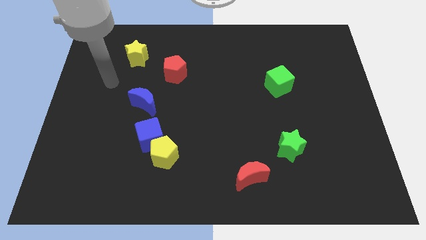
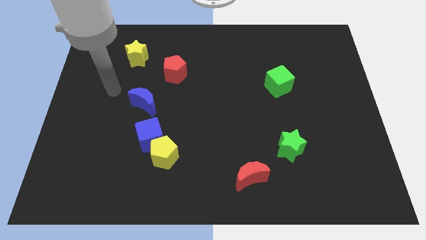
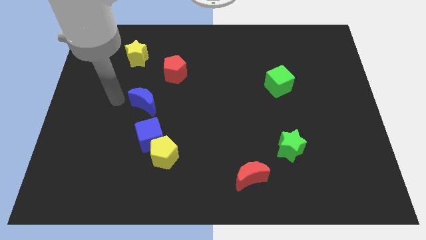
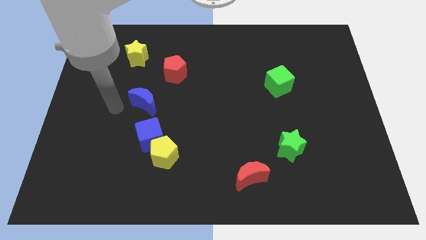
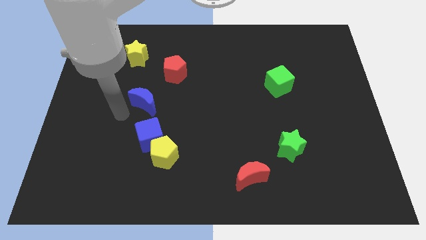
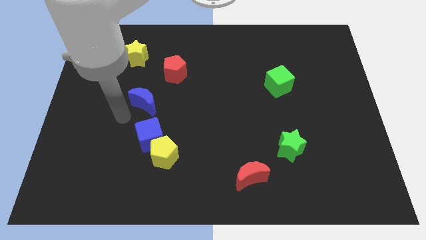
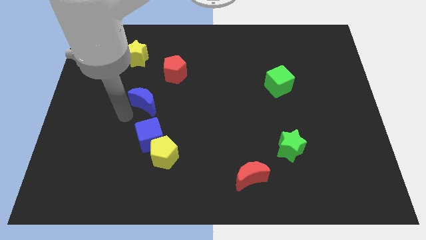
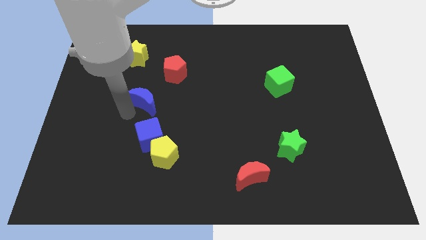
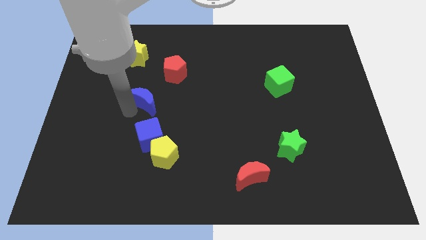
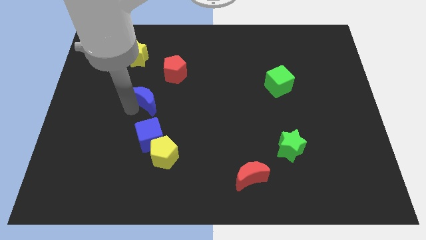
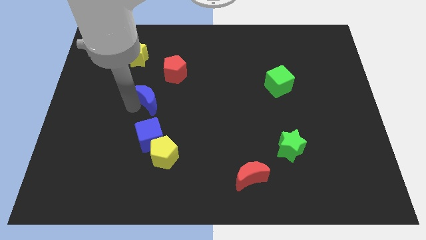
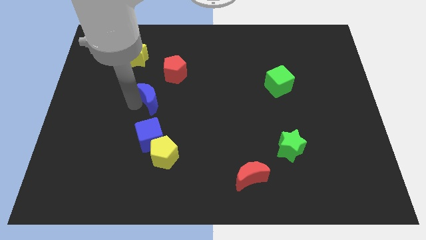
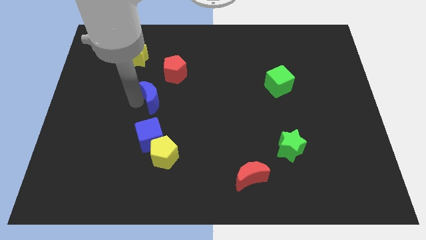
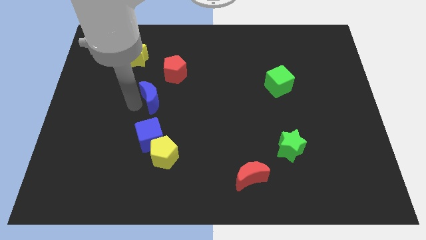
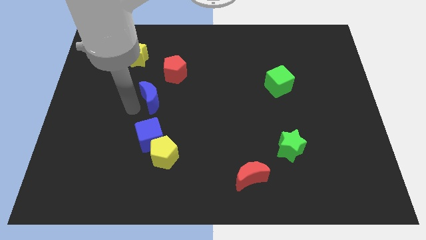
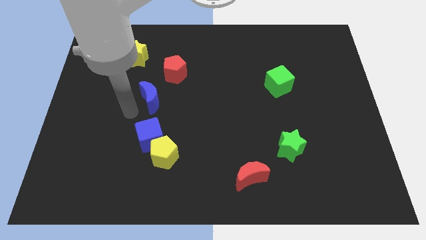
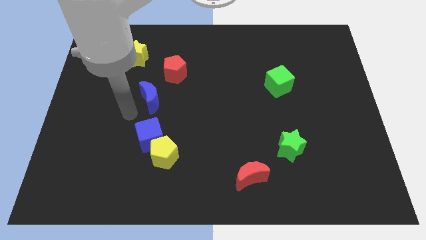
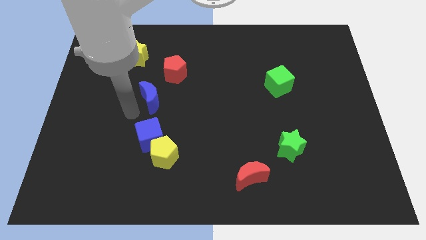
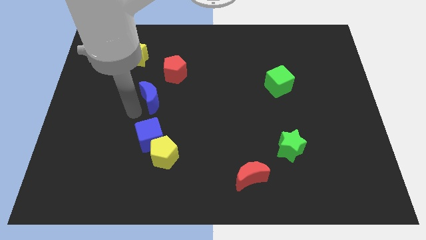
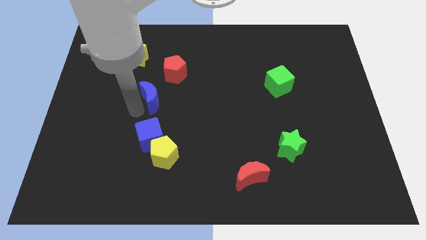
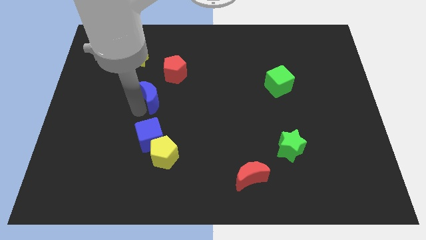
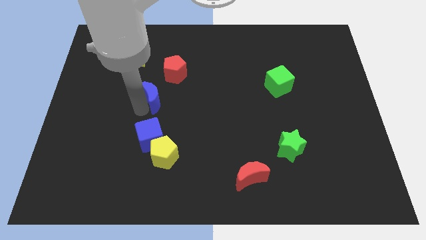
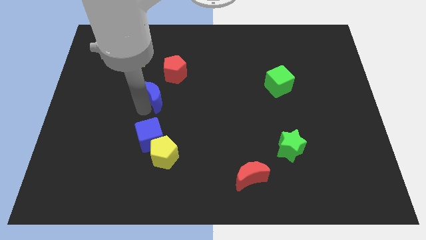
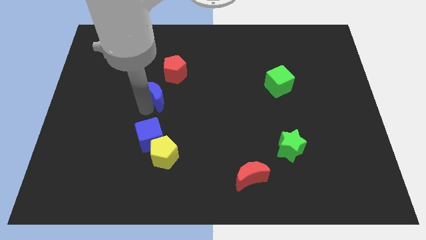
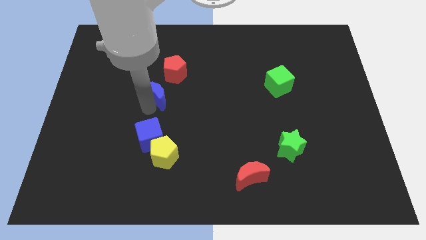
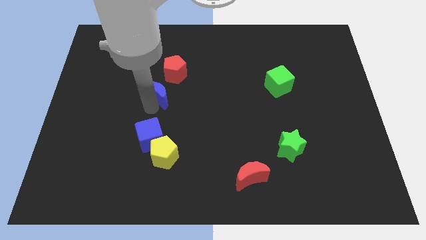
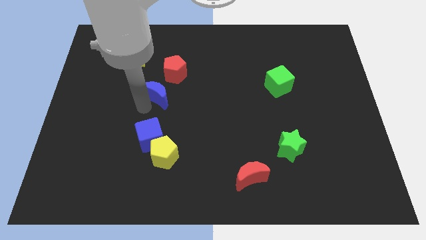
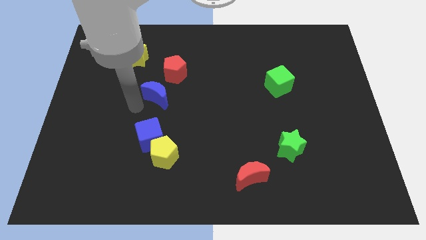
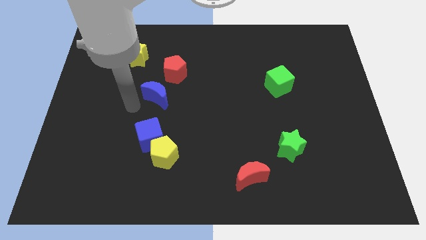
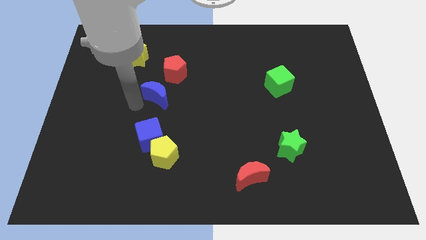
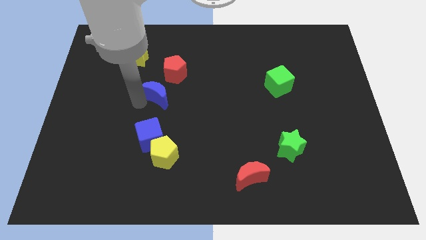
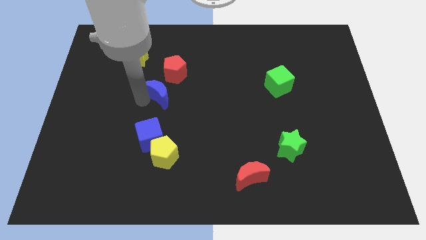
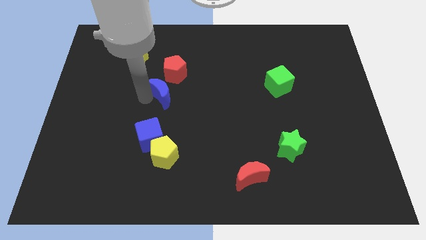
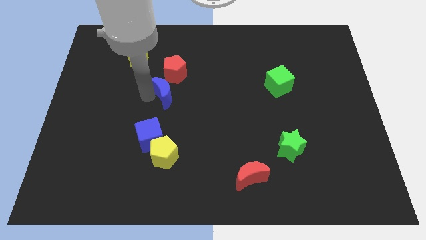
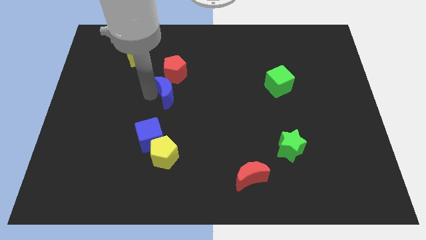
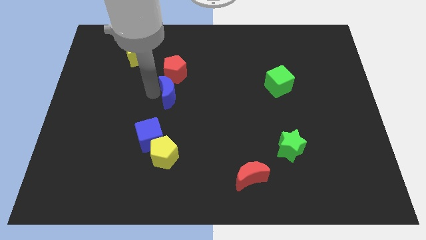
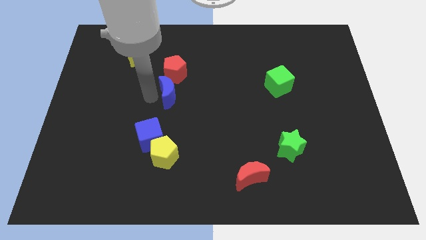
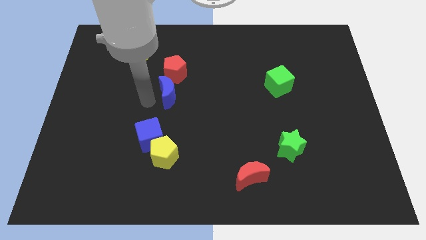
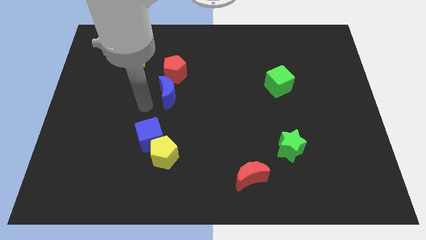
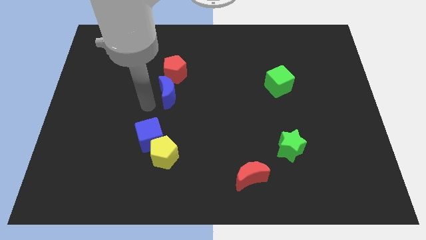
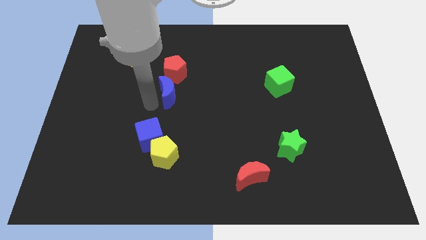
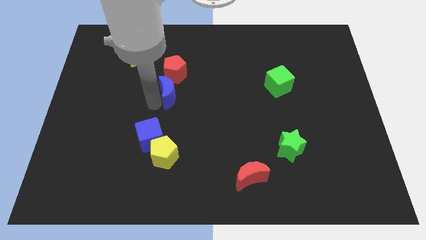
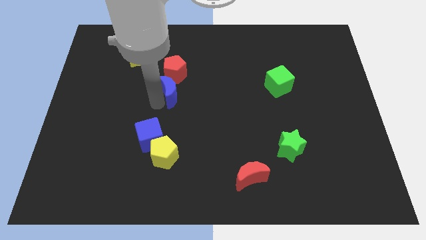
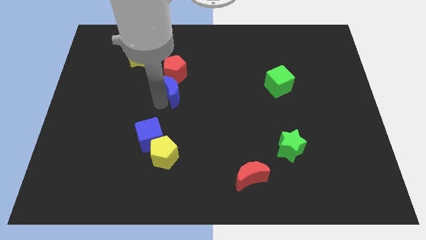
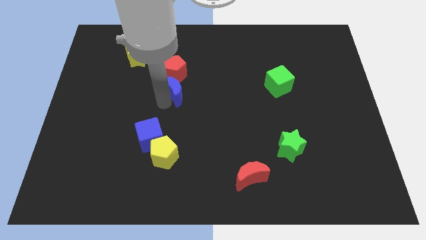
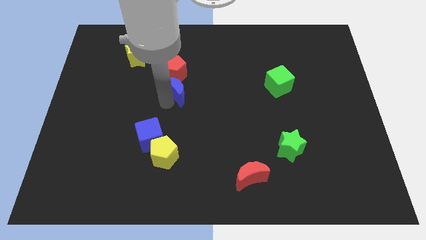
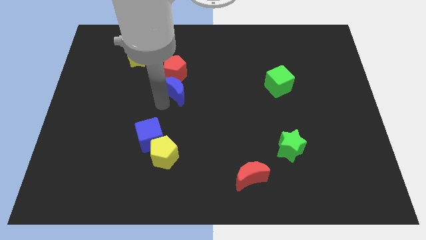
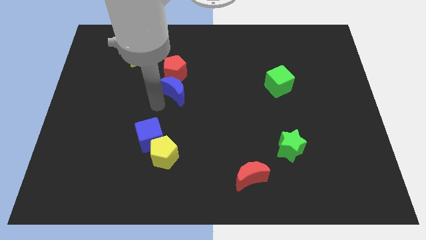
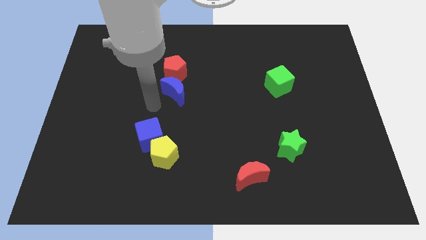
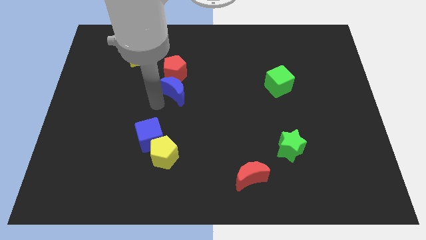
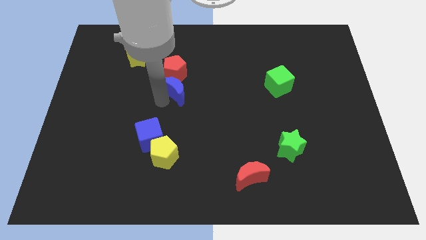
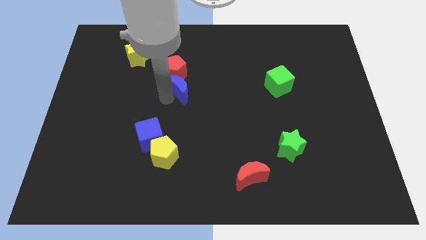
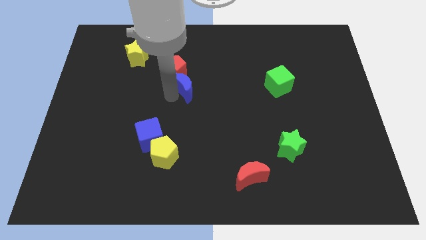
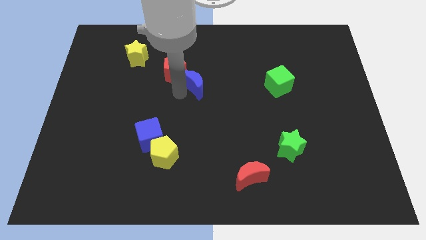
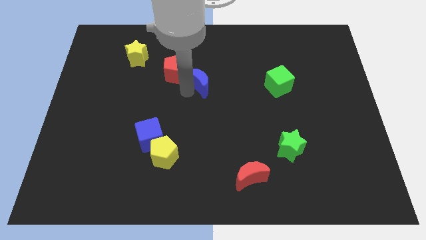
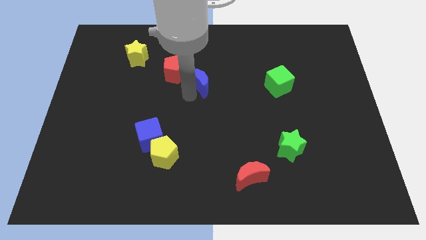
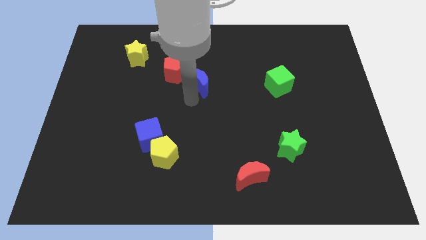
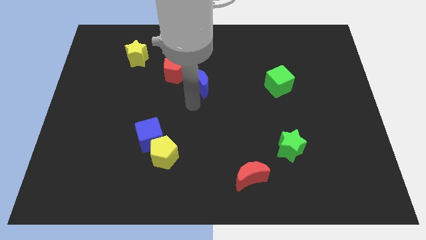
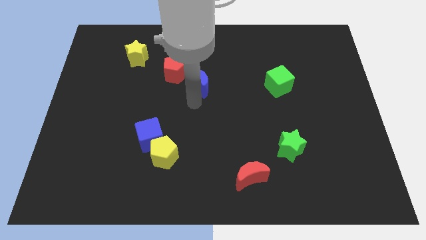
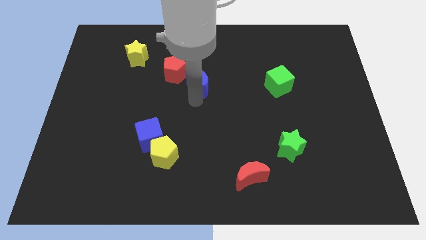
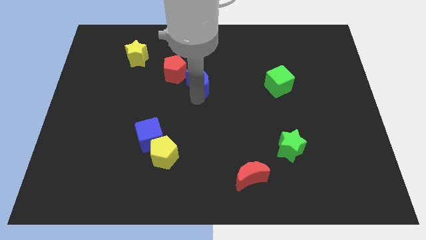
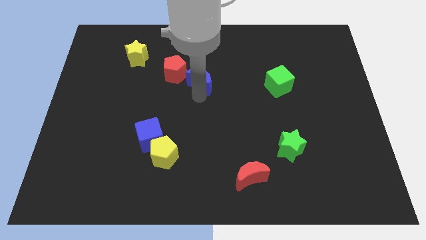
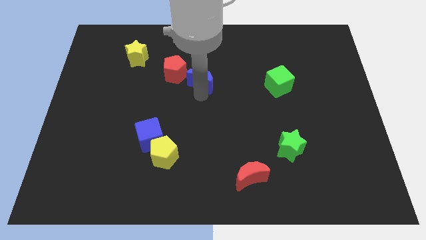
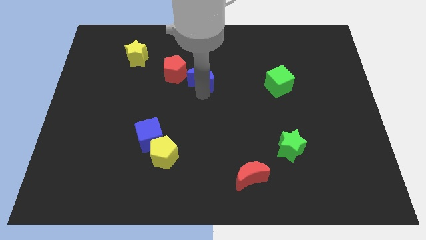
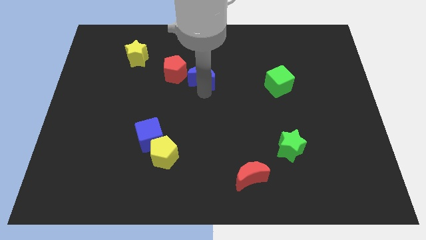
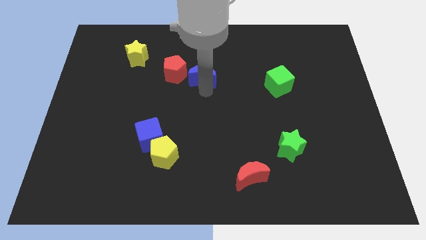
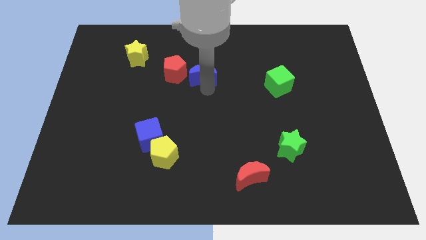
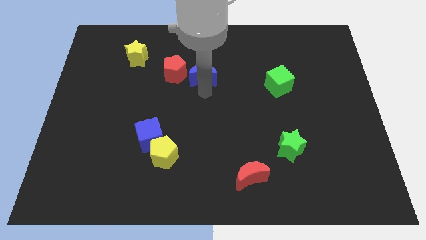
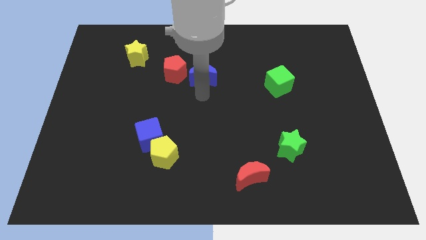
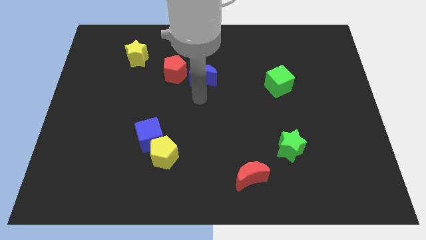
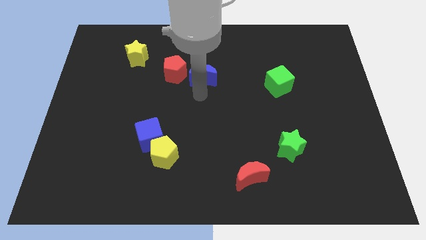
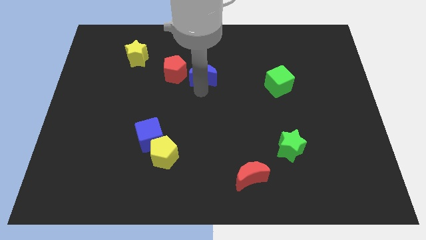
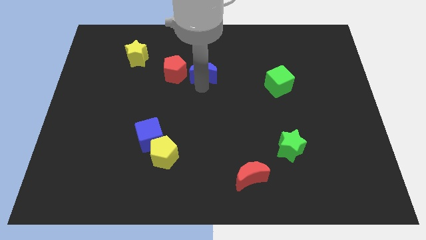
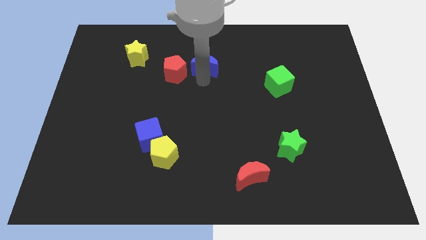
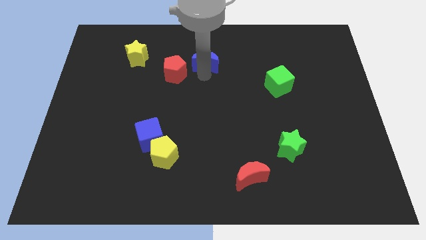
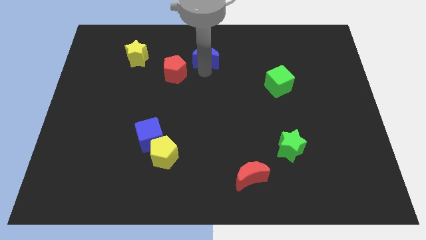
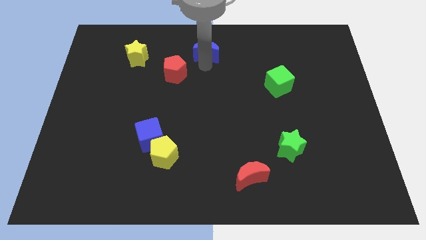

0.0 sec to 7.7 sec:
push the blue moon to the towards your base
